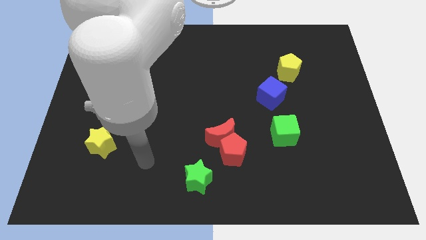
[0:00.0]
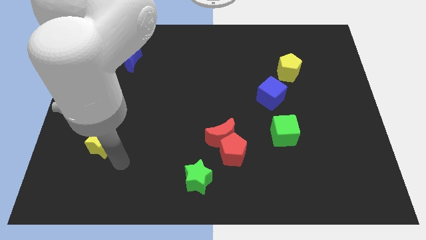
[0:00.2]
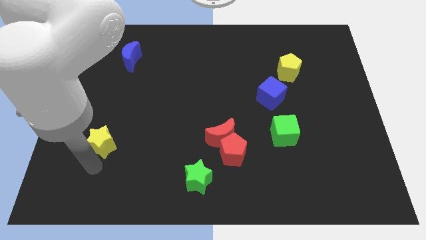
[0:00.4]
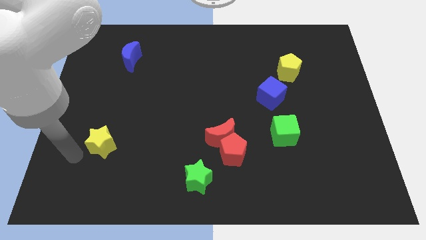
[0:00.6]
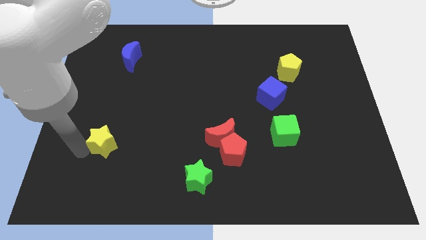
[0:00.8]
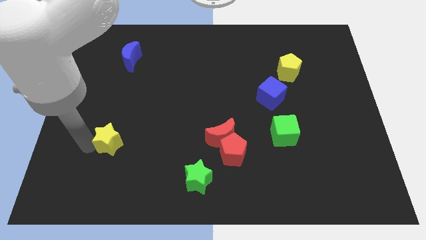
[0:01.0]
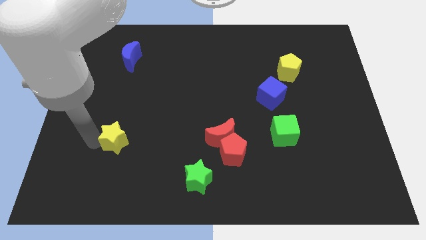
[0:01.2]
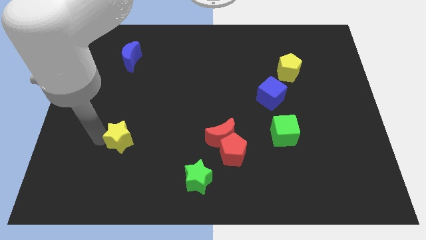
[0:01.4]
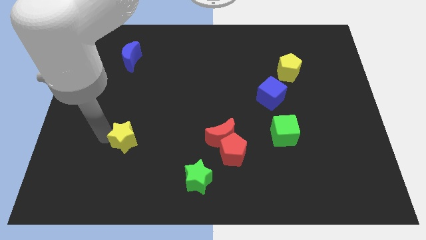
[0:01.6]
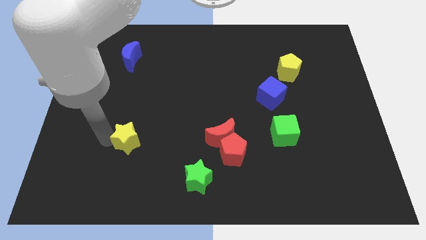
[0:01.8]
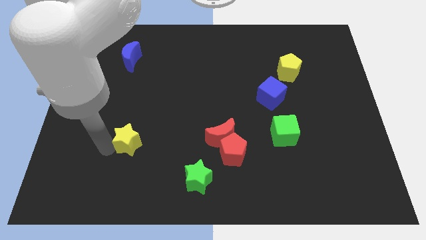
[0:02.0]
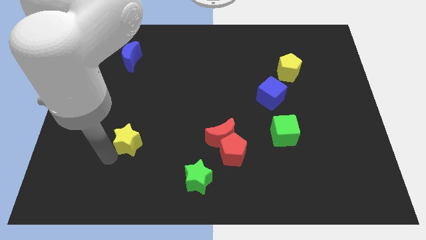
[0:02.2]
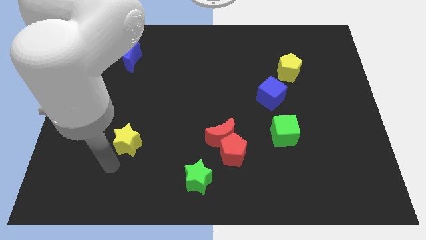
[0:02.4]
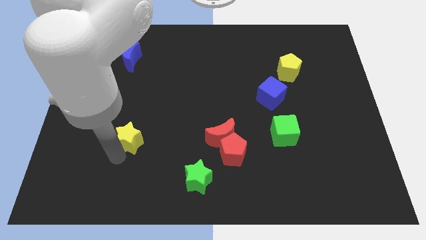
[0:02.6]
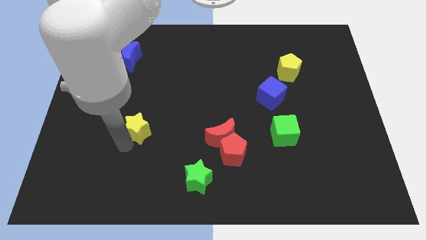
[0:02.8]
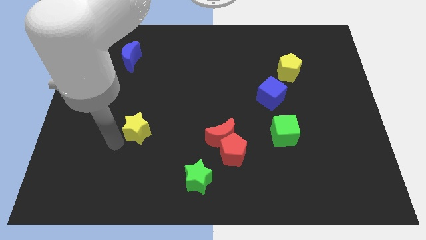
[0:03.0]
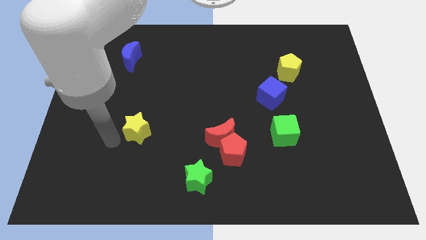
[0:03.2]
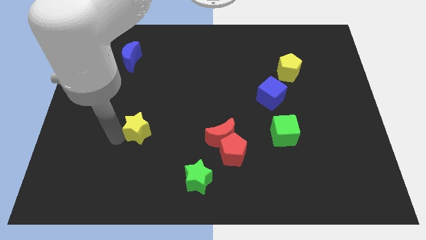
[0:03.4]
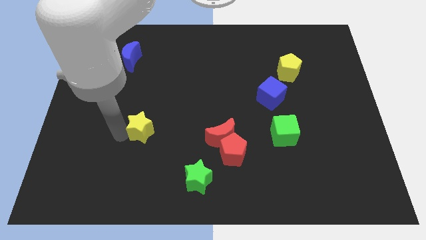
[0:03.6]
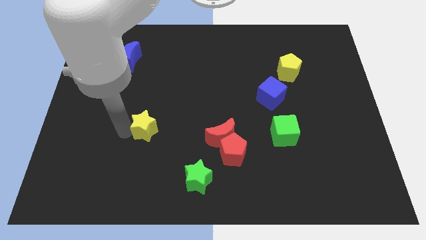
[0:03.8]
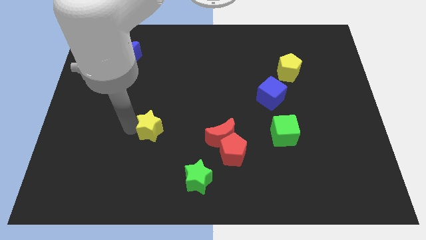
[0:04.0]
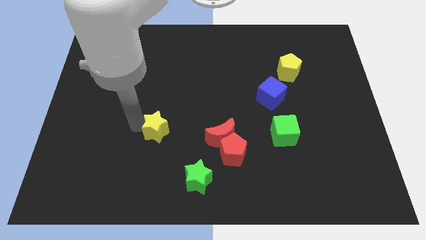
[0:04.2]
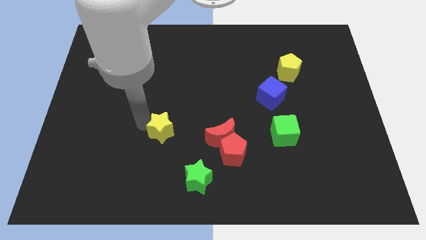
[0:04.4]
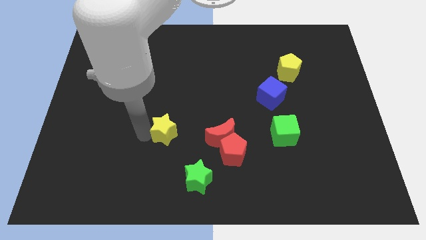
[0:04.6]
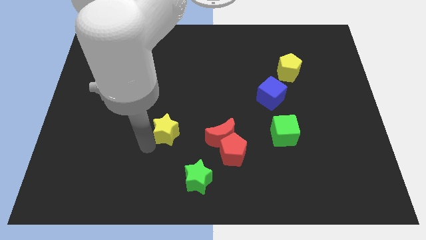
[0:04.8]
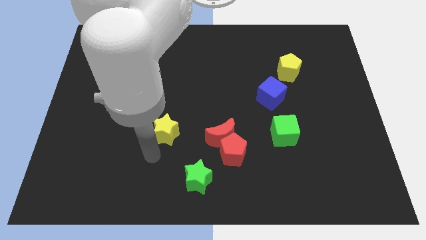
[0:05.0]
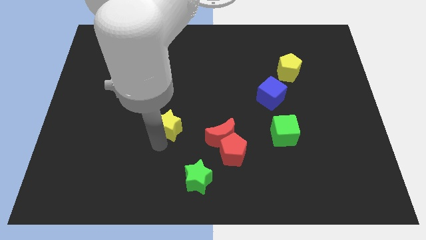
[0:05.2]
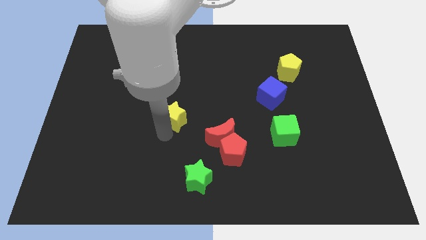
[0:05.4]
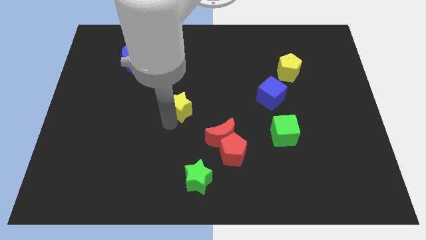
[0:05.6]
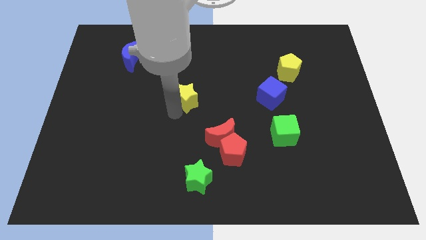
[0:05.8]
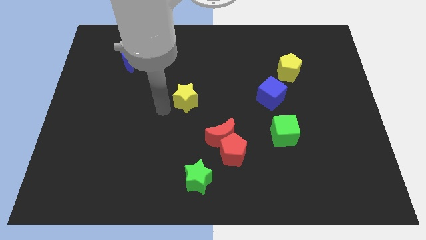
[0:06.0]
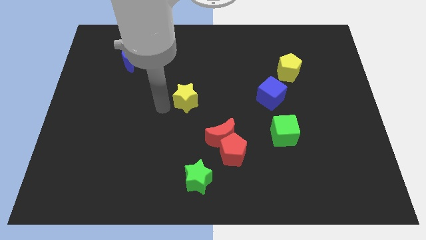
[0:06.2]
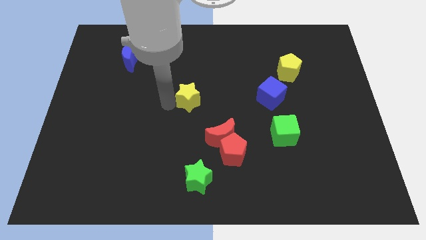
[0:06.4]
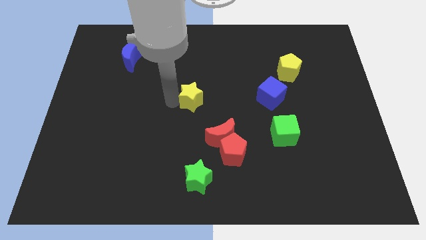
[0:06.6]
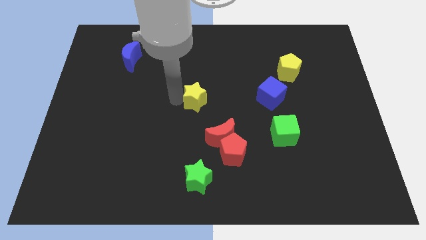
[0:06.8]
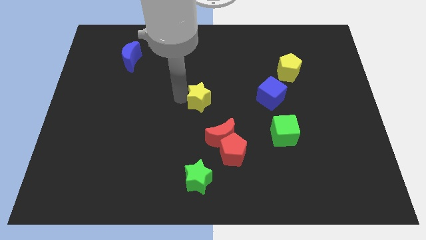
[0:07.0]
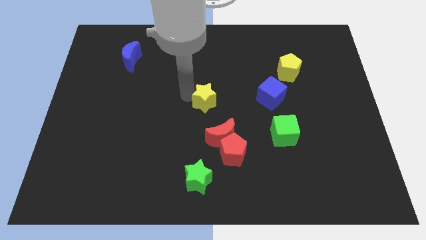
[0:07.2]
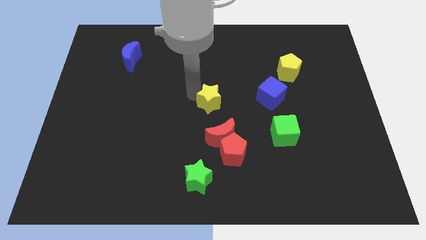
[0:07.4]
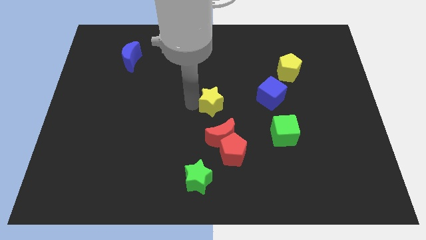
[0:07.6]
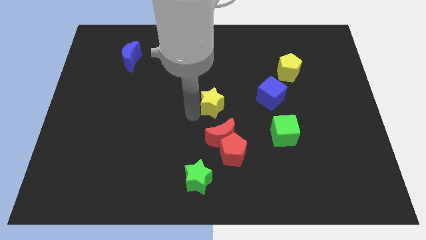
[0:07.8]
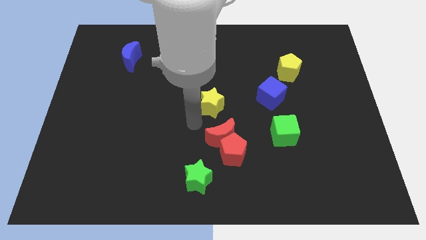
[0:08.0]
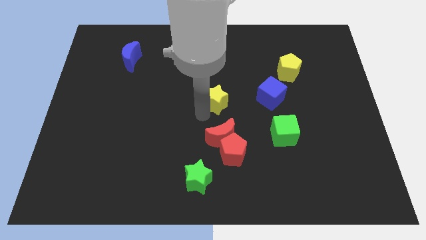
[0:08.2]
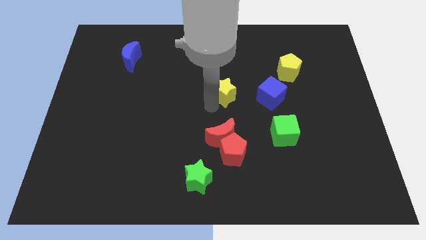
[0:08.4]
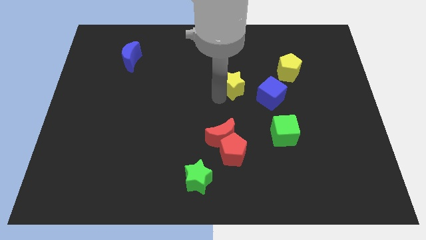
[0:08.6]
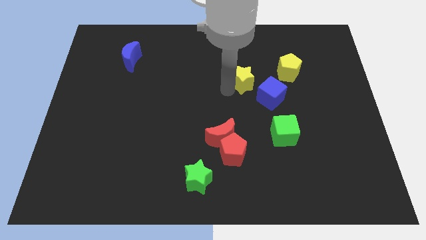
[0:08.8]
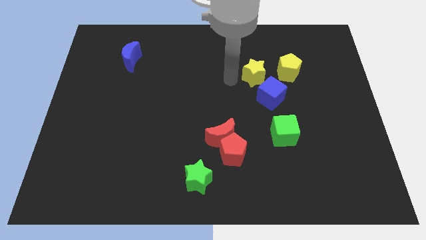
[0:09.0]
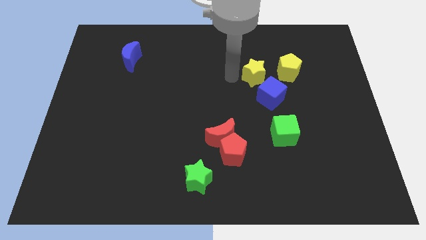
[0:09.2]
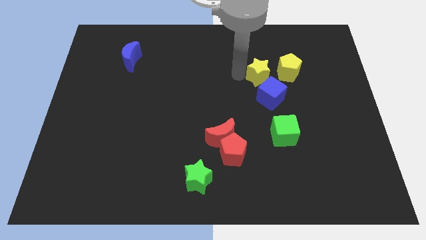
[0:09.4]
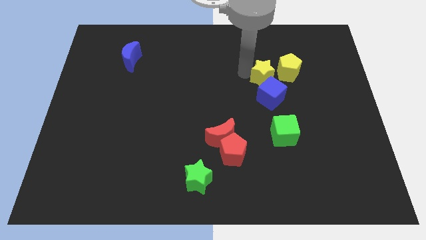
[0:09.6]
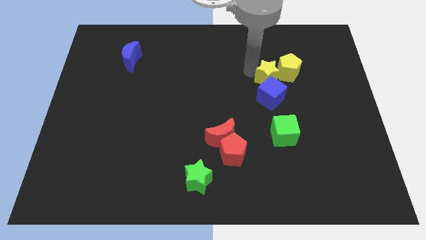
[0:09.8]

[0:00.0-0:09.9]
push the yellow star to the yellow pentagon

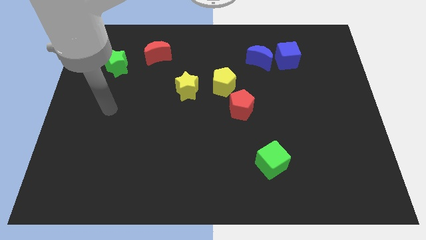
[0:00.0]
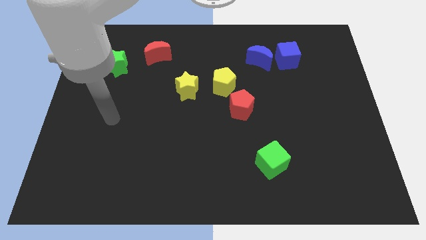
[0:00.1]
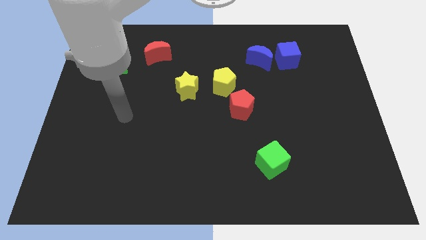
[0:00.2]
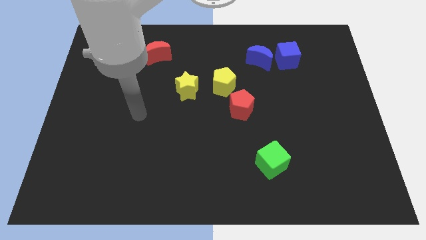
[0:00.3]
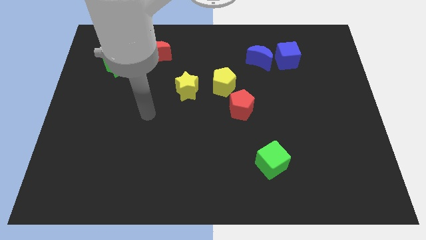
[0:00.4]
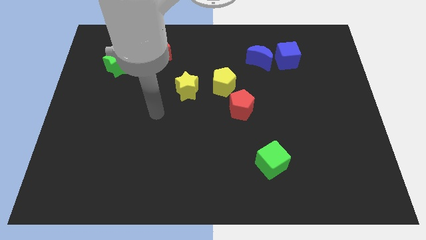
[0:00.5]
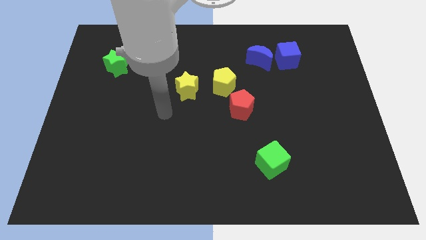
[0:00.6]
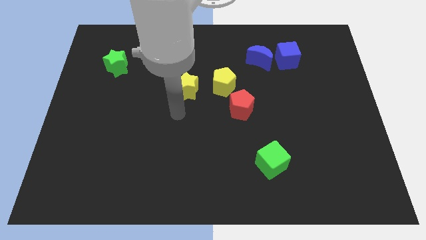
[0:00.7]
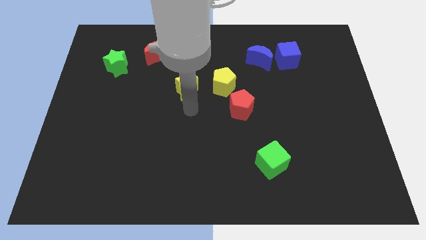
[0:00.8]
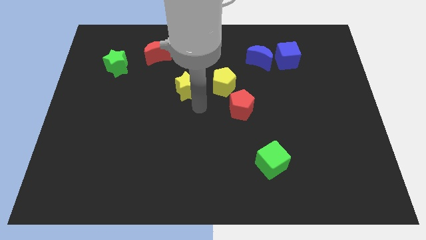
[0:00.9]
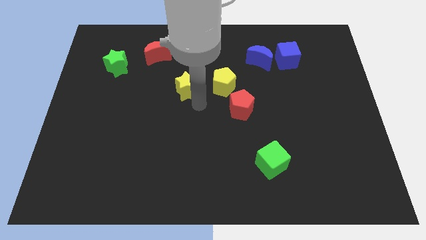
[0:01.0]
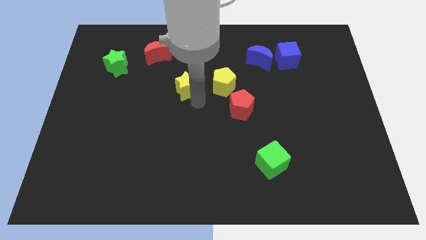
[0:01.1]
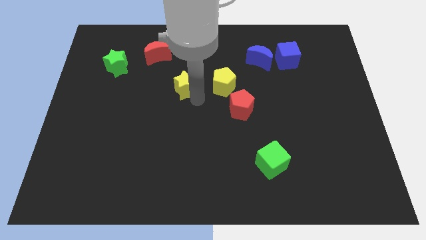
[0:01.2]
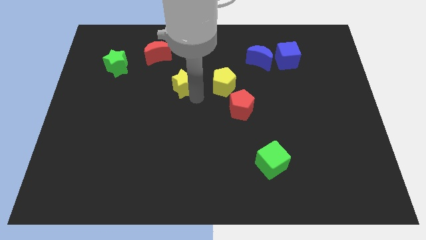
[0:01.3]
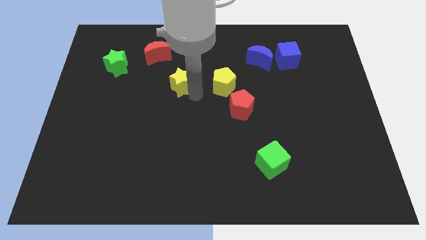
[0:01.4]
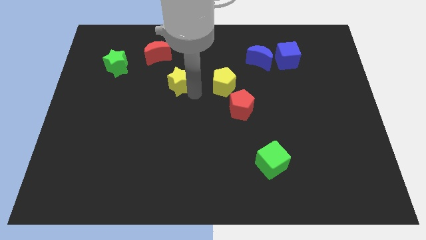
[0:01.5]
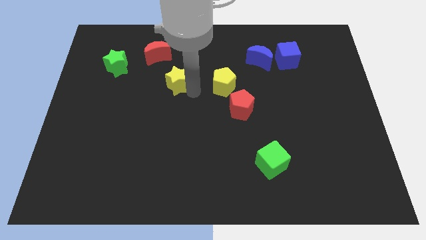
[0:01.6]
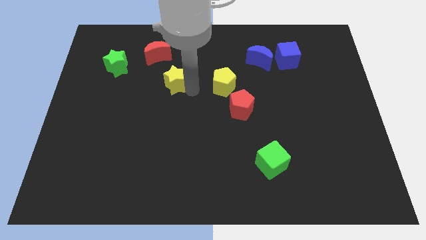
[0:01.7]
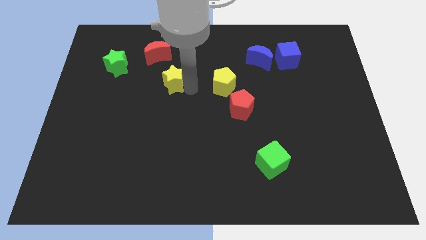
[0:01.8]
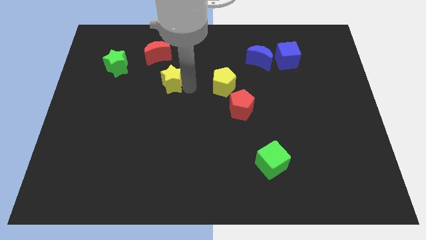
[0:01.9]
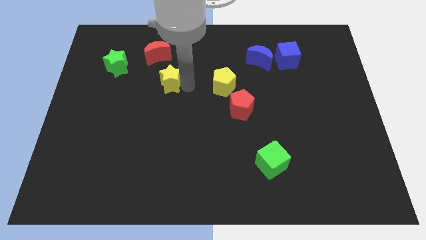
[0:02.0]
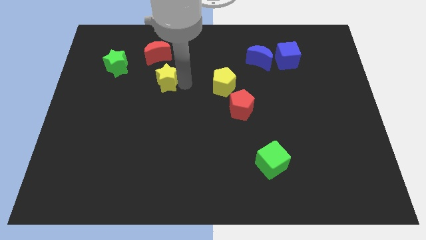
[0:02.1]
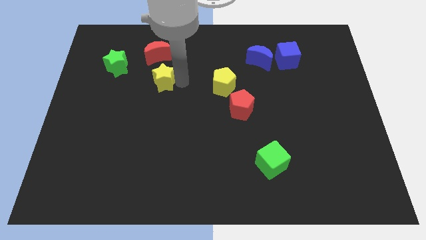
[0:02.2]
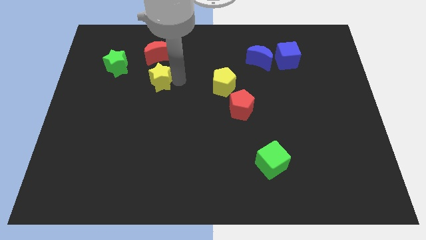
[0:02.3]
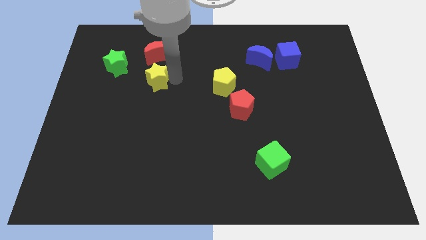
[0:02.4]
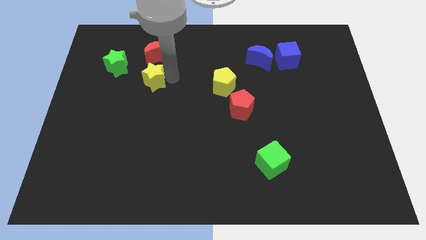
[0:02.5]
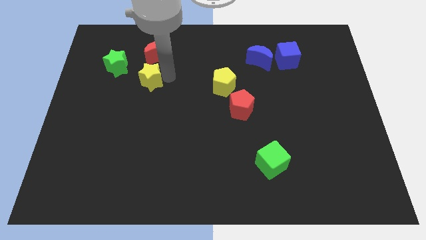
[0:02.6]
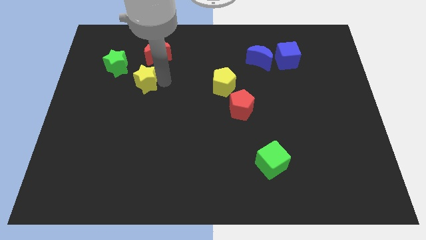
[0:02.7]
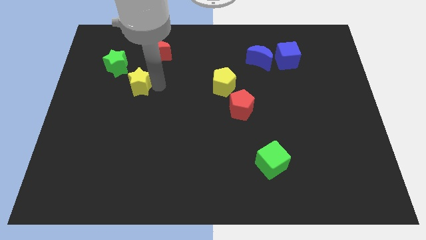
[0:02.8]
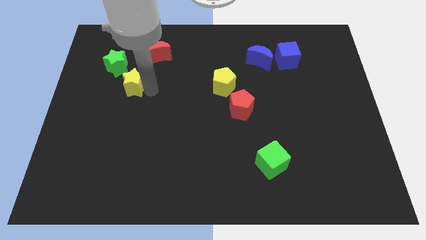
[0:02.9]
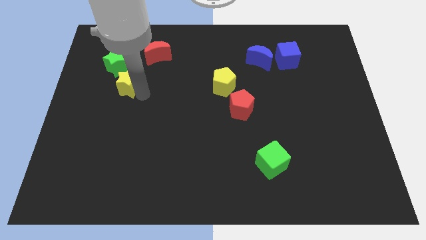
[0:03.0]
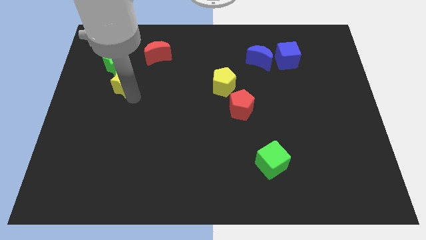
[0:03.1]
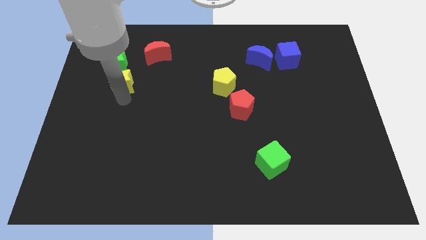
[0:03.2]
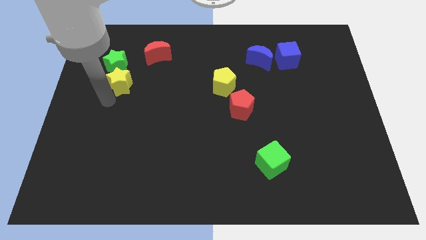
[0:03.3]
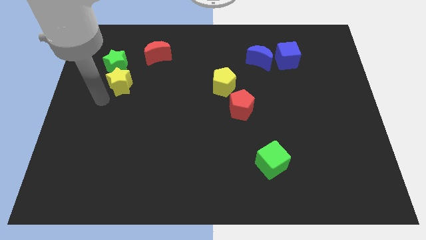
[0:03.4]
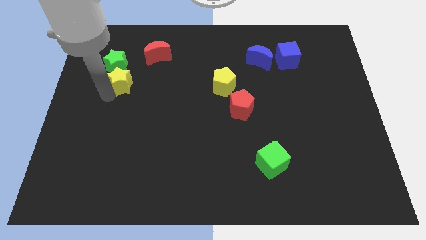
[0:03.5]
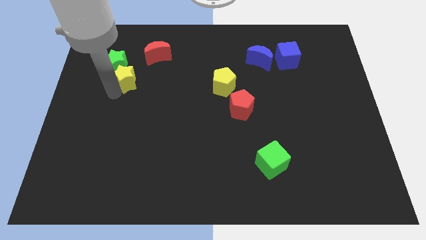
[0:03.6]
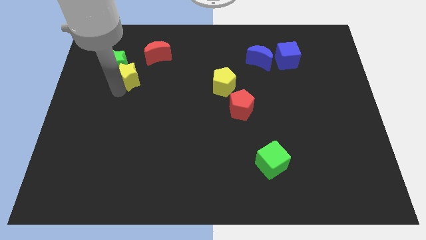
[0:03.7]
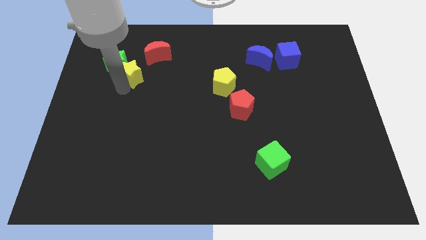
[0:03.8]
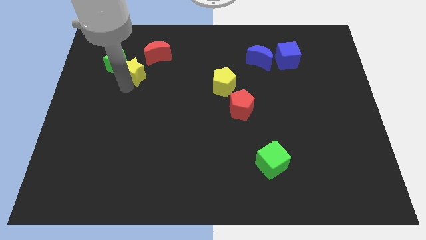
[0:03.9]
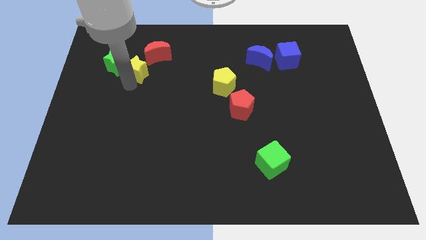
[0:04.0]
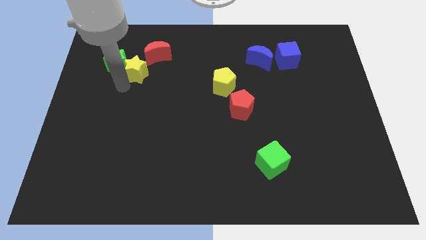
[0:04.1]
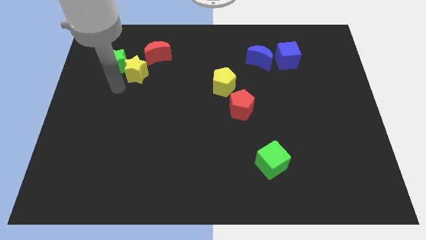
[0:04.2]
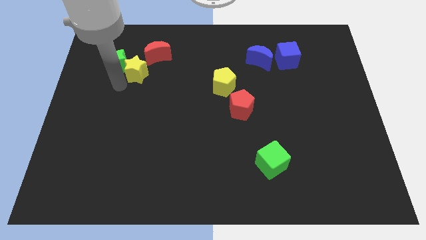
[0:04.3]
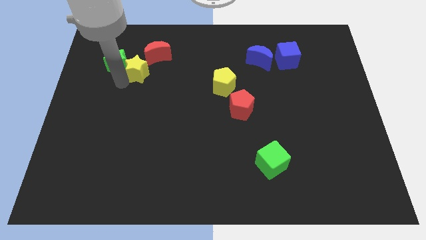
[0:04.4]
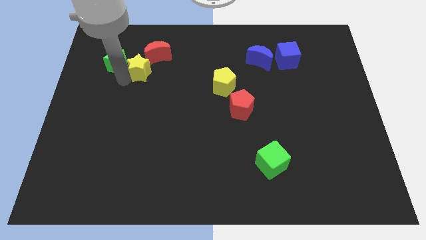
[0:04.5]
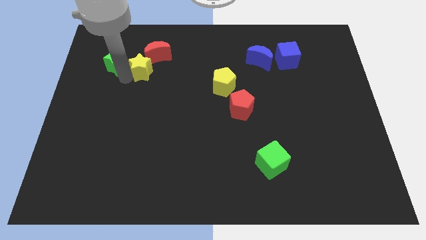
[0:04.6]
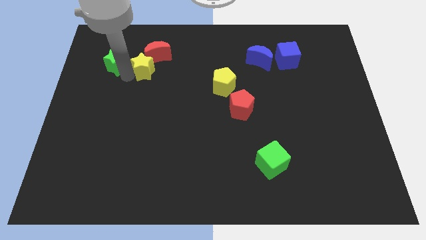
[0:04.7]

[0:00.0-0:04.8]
put the yellow star towards the red moon
